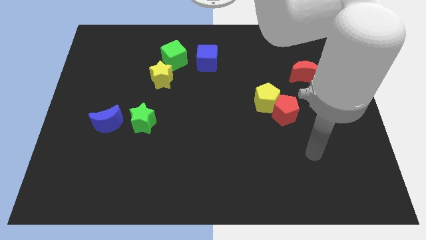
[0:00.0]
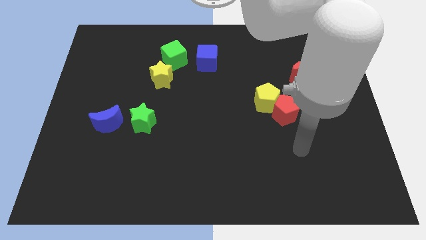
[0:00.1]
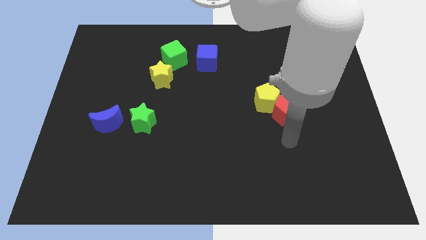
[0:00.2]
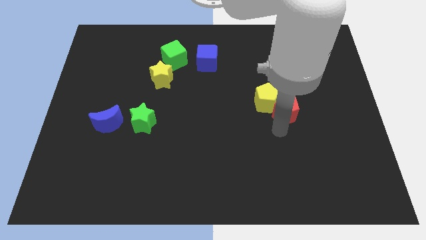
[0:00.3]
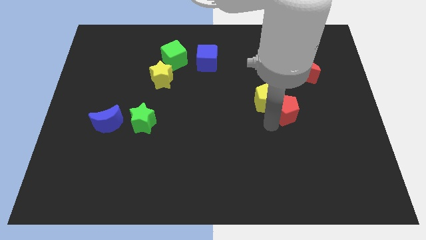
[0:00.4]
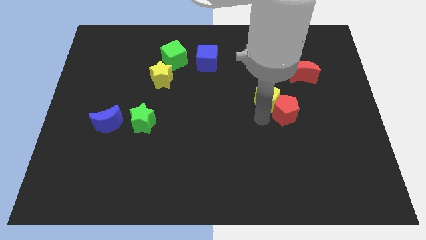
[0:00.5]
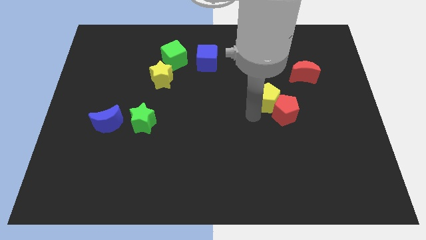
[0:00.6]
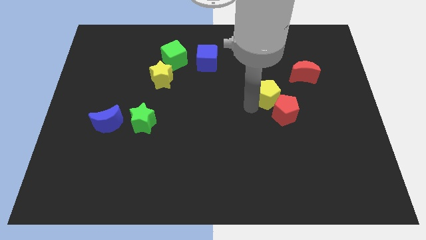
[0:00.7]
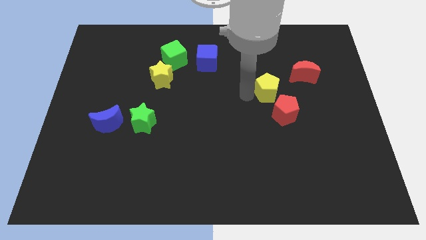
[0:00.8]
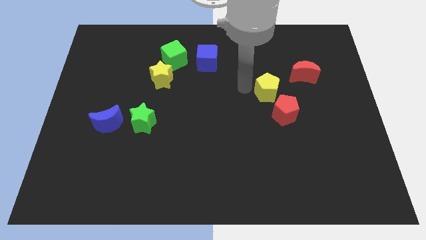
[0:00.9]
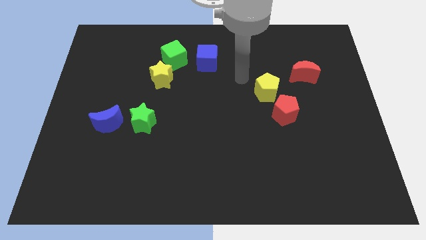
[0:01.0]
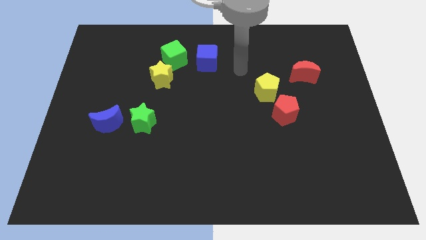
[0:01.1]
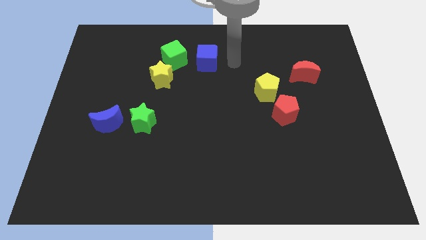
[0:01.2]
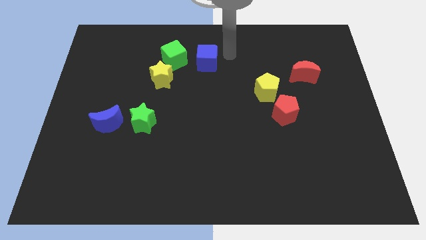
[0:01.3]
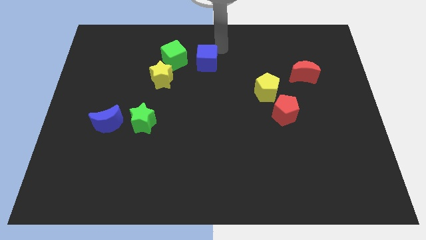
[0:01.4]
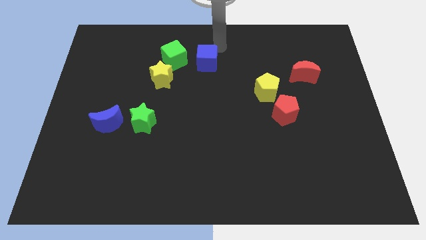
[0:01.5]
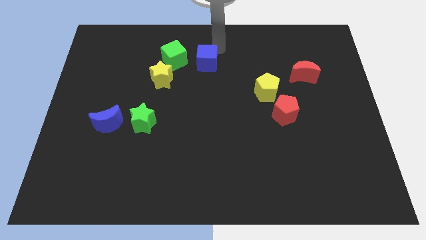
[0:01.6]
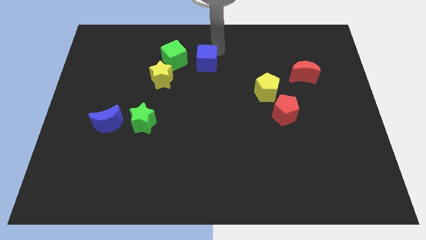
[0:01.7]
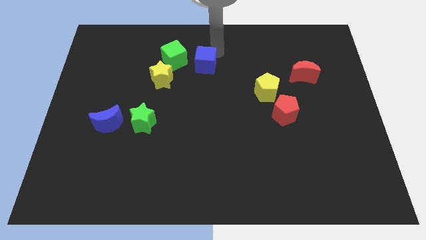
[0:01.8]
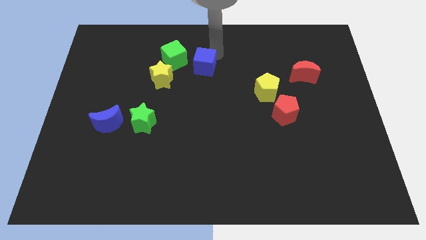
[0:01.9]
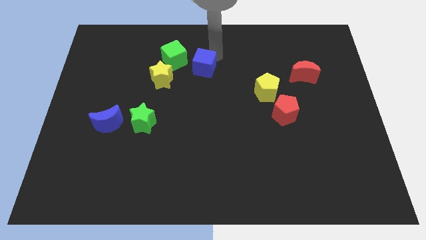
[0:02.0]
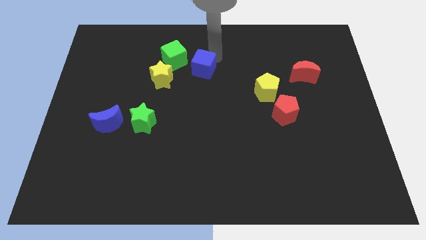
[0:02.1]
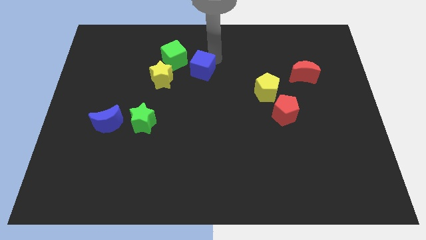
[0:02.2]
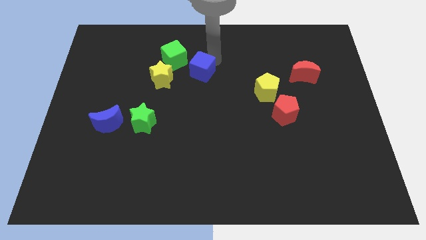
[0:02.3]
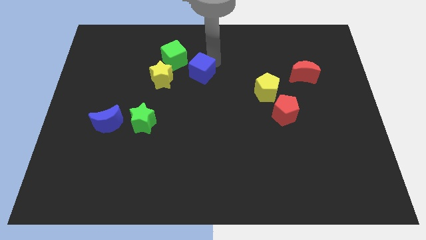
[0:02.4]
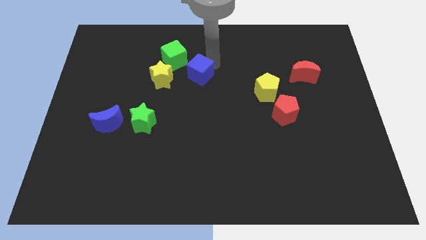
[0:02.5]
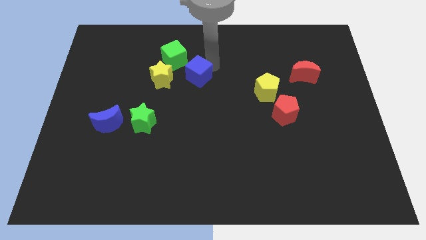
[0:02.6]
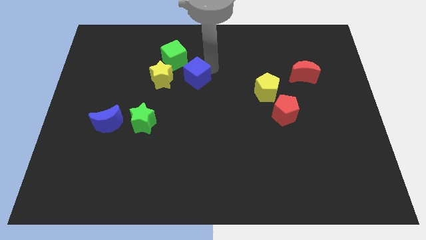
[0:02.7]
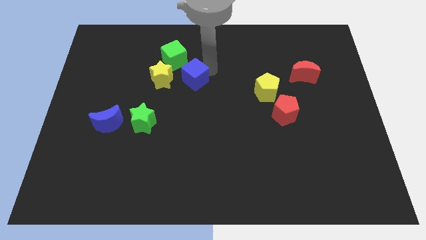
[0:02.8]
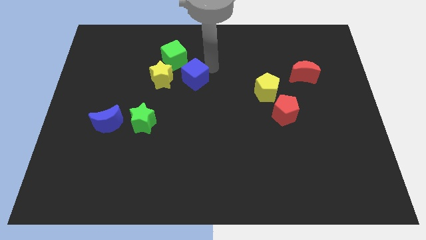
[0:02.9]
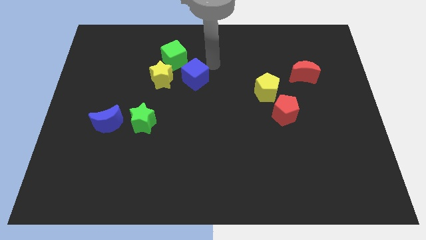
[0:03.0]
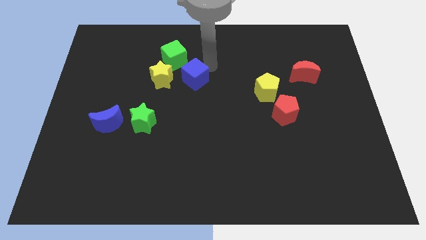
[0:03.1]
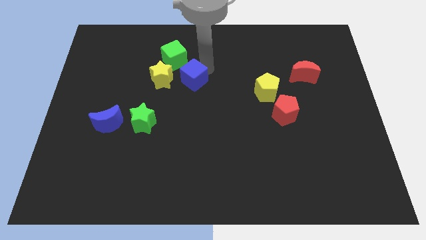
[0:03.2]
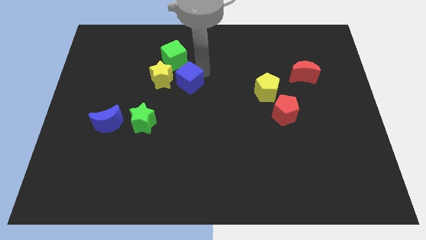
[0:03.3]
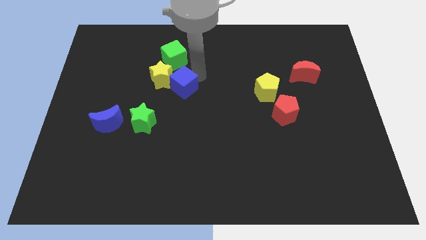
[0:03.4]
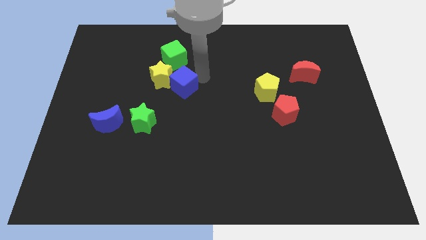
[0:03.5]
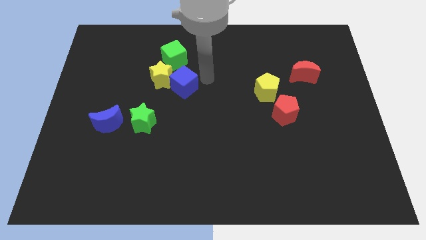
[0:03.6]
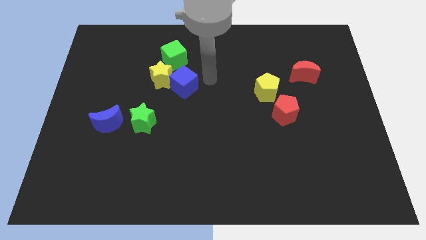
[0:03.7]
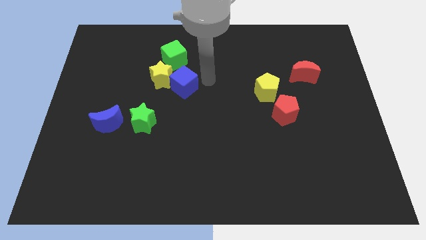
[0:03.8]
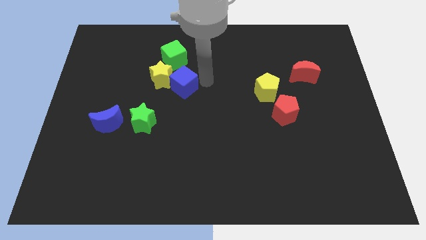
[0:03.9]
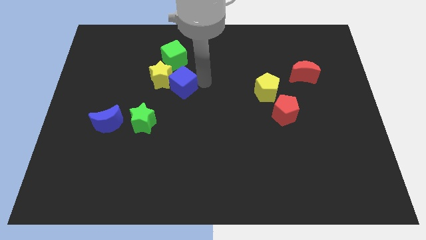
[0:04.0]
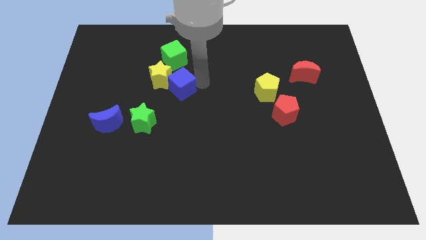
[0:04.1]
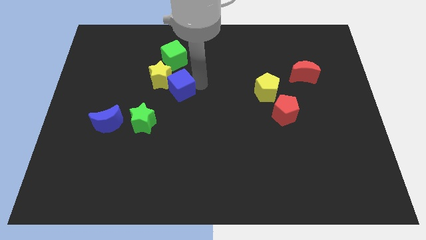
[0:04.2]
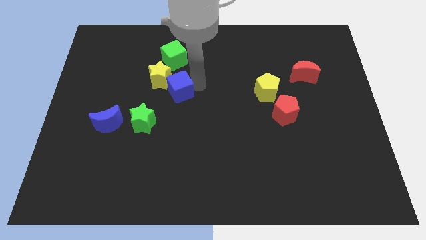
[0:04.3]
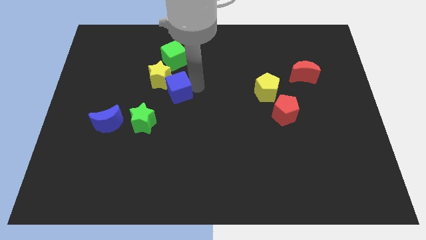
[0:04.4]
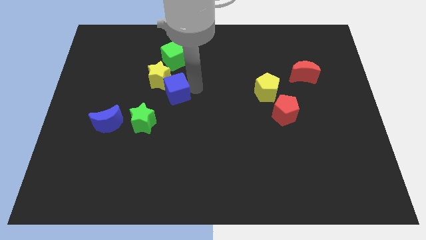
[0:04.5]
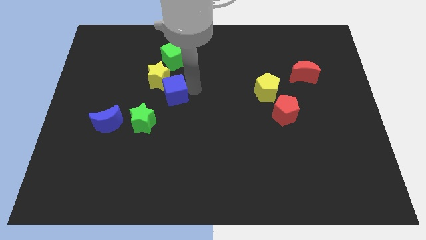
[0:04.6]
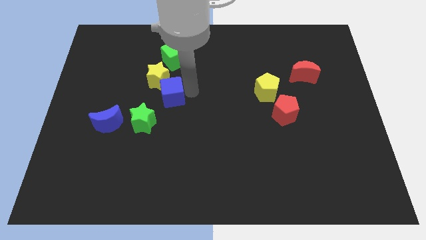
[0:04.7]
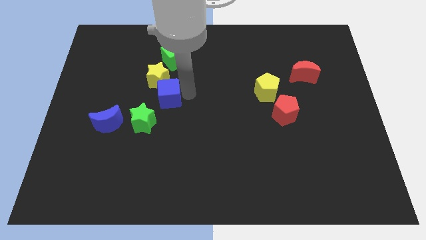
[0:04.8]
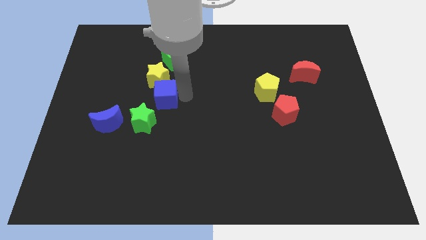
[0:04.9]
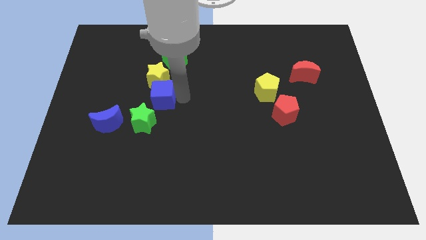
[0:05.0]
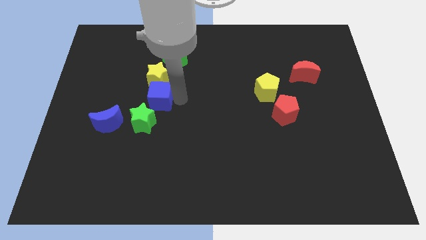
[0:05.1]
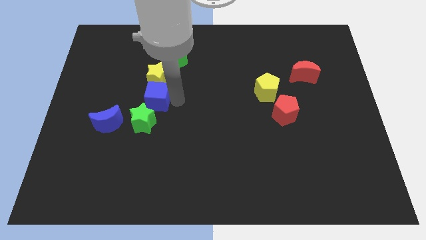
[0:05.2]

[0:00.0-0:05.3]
move the blue cube diagonally down and to the left of the yellow star

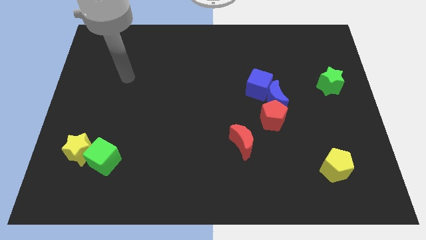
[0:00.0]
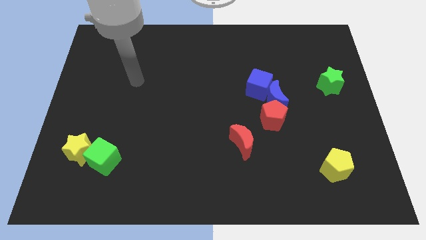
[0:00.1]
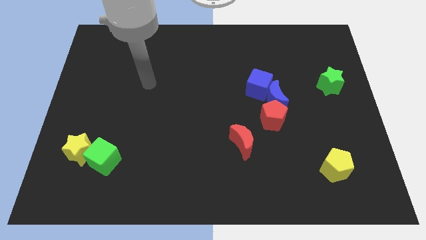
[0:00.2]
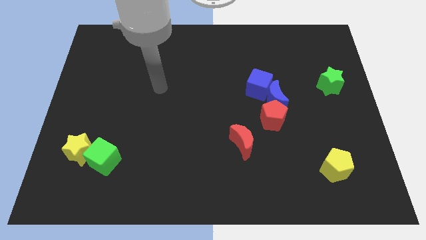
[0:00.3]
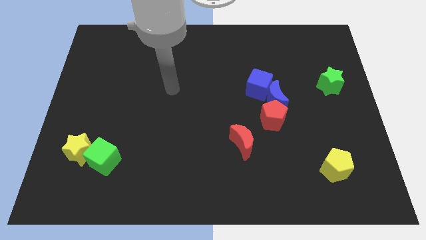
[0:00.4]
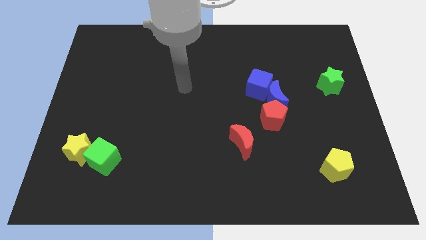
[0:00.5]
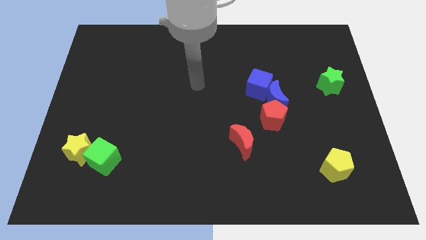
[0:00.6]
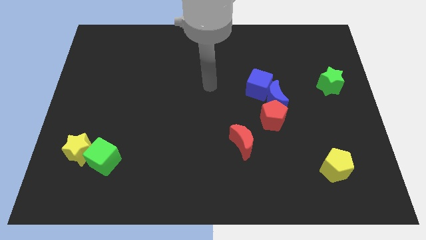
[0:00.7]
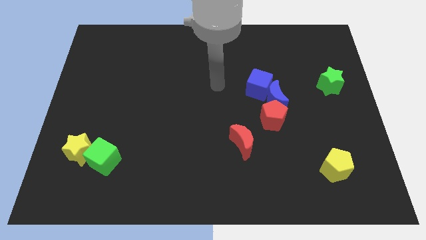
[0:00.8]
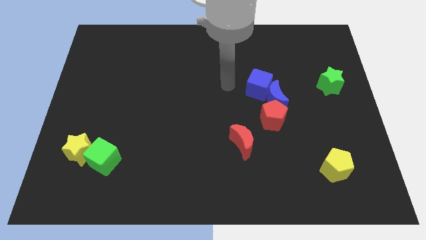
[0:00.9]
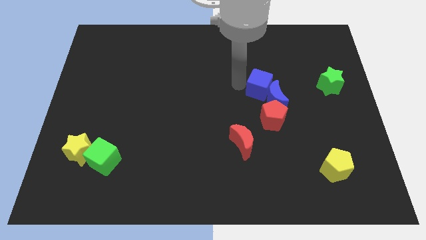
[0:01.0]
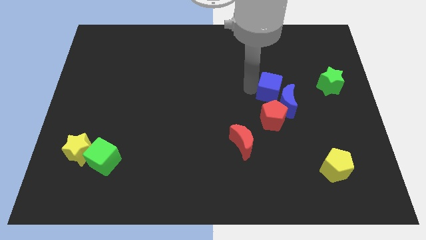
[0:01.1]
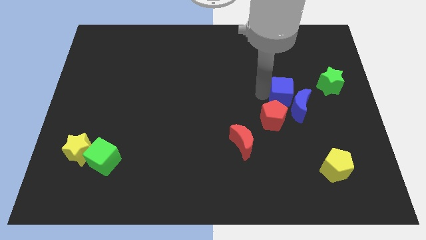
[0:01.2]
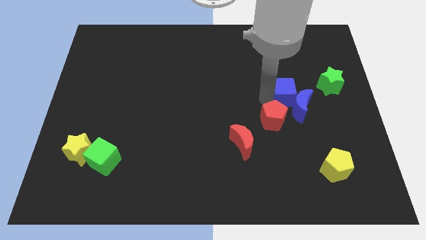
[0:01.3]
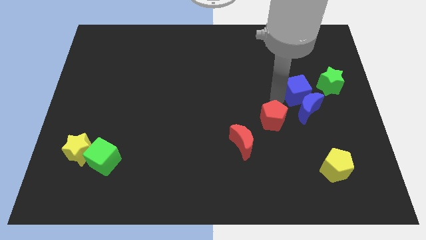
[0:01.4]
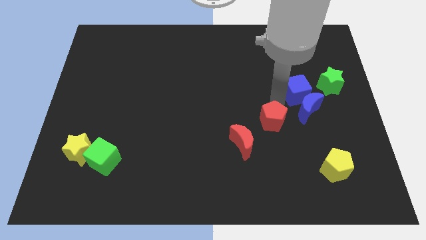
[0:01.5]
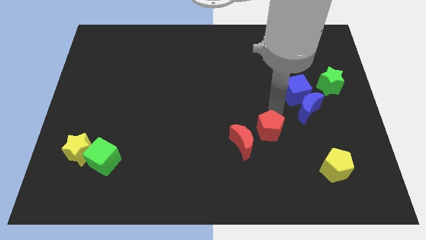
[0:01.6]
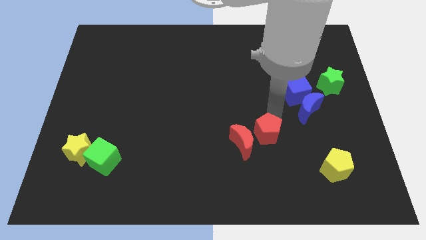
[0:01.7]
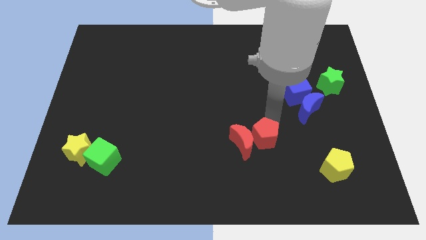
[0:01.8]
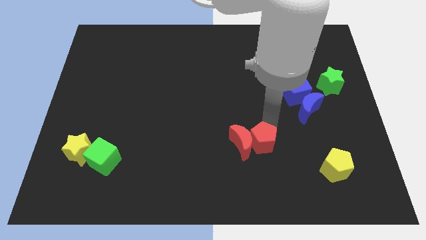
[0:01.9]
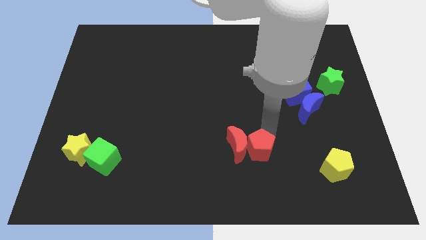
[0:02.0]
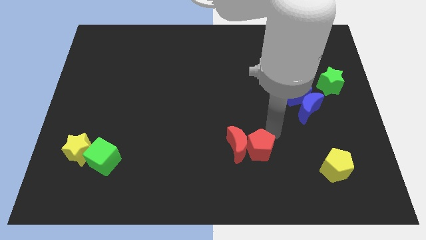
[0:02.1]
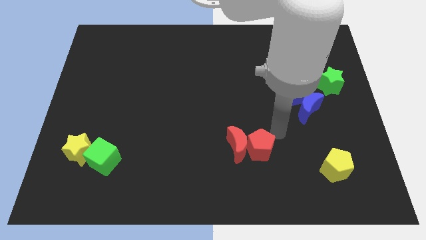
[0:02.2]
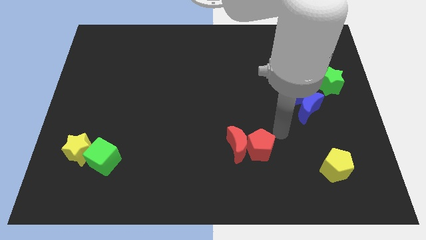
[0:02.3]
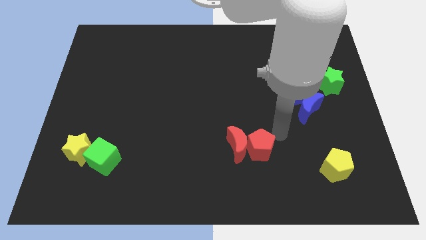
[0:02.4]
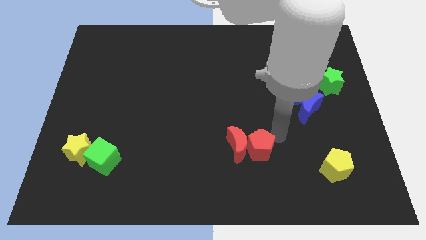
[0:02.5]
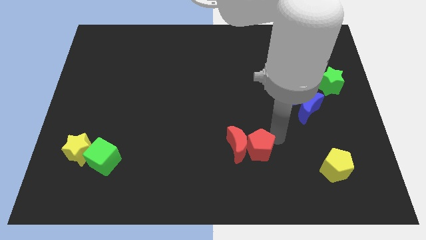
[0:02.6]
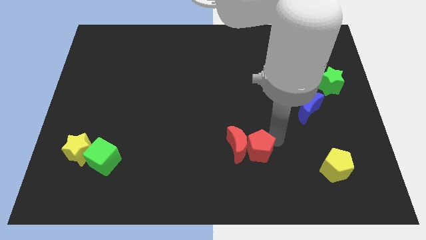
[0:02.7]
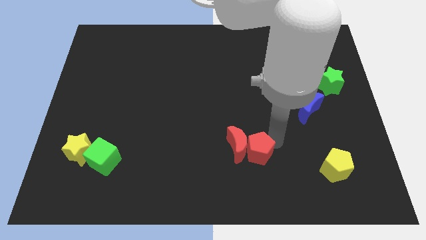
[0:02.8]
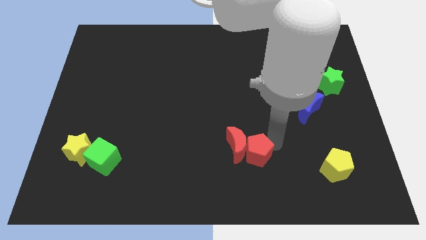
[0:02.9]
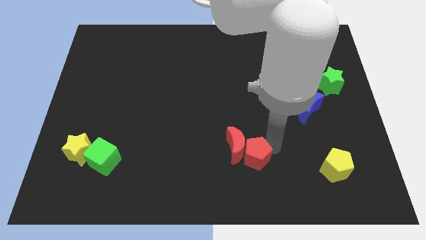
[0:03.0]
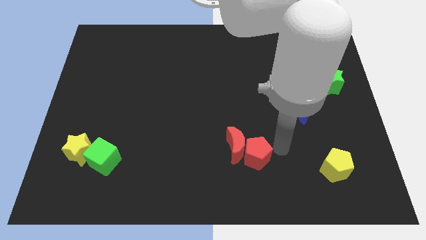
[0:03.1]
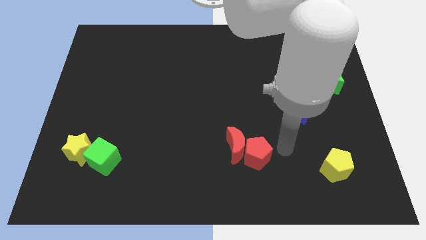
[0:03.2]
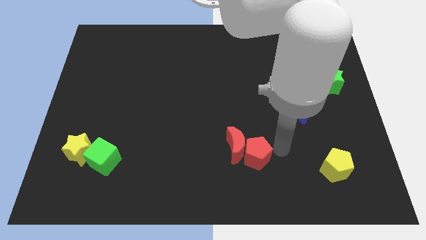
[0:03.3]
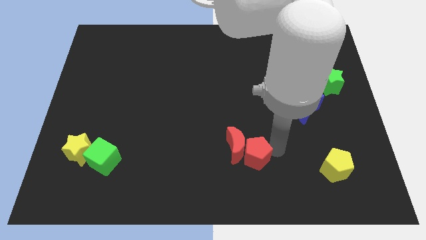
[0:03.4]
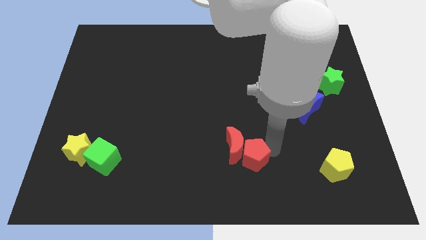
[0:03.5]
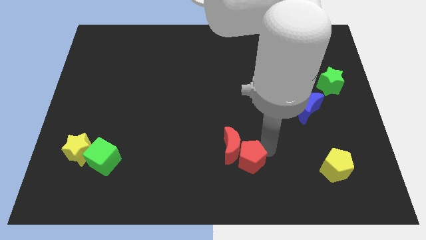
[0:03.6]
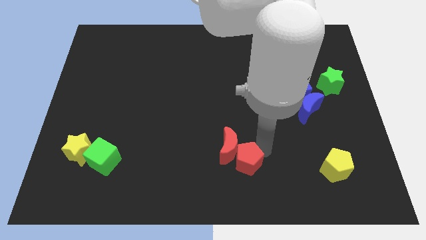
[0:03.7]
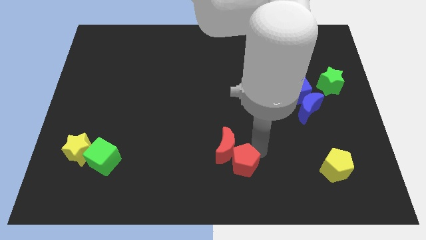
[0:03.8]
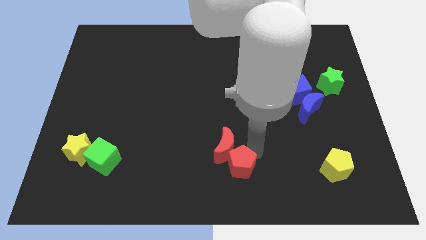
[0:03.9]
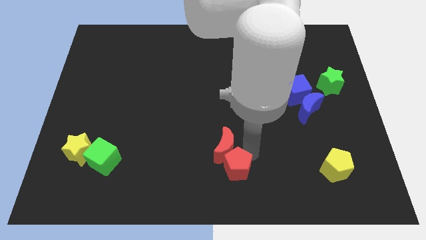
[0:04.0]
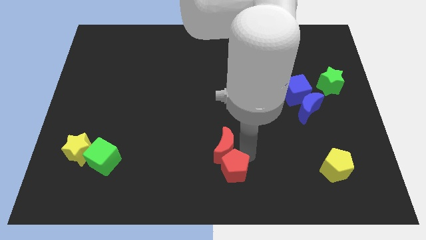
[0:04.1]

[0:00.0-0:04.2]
slide the red pentagon to the bottom left of the red moon
